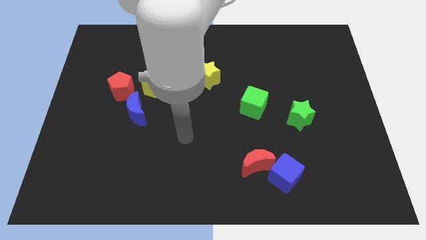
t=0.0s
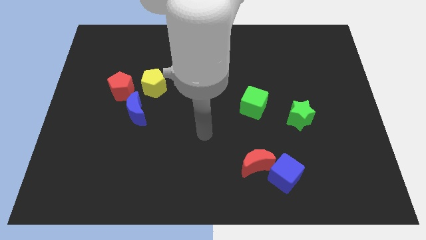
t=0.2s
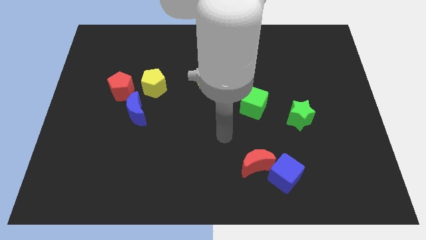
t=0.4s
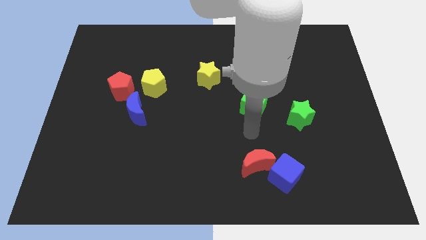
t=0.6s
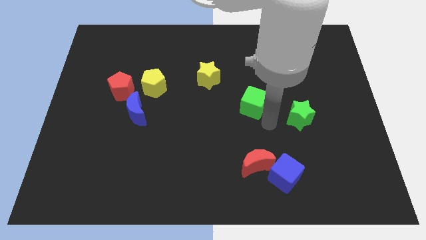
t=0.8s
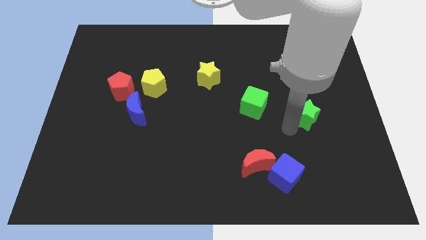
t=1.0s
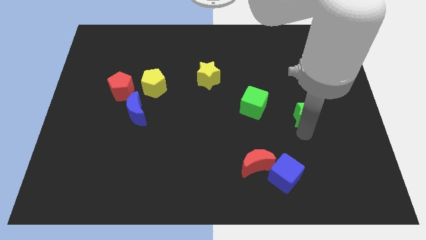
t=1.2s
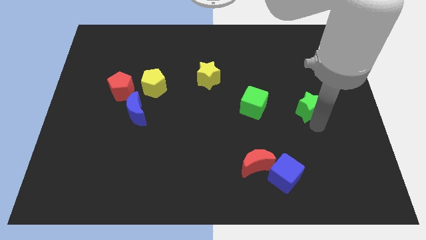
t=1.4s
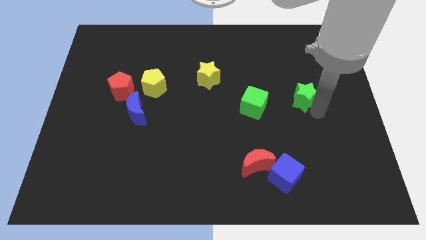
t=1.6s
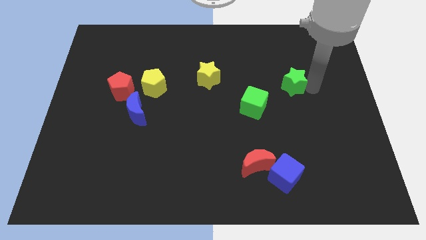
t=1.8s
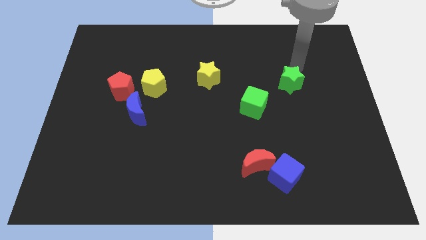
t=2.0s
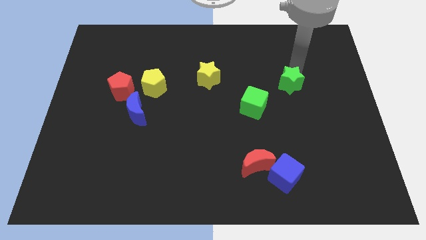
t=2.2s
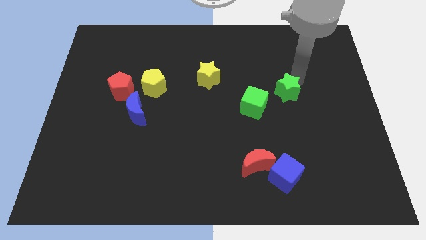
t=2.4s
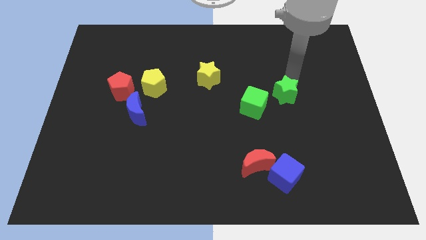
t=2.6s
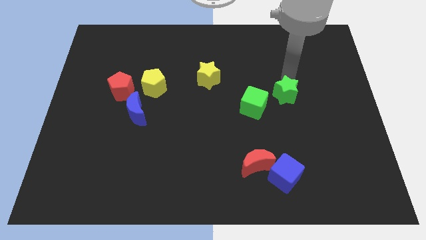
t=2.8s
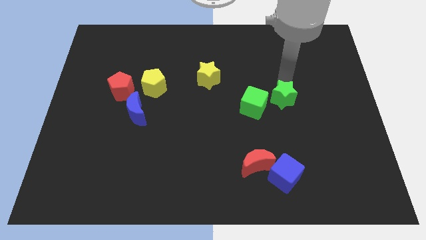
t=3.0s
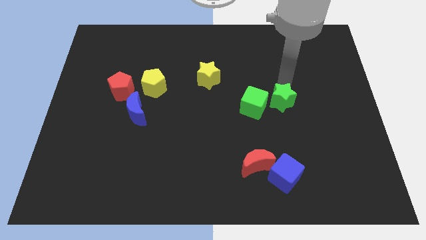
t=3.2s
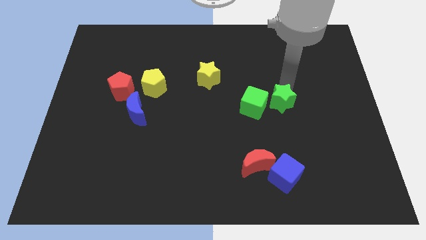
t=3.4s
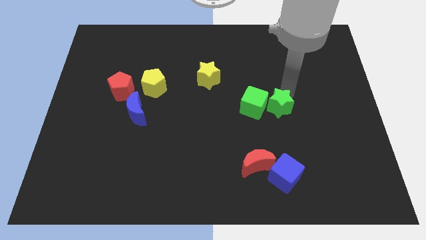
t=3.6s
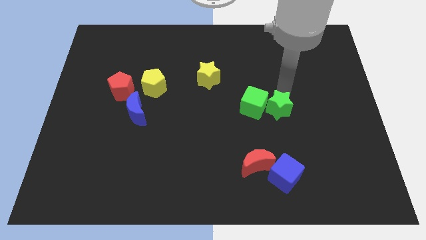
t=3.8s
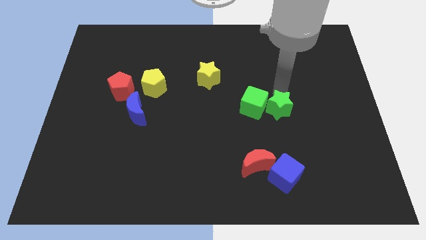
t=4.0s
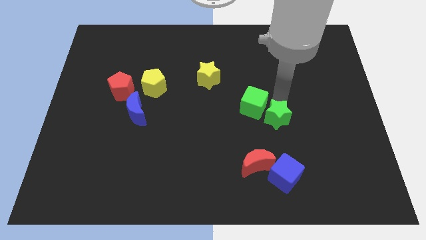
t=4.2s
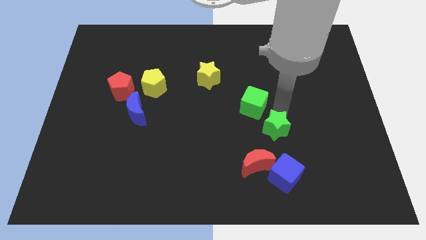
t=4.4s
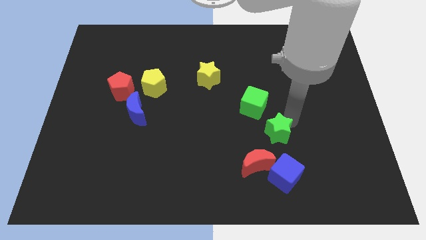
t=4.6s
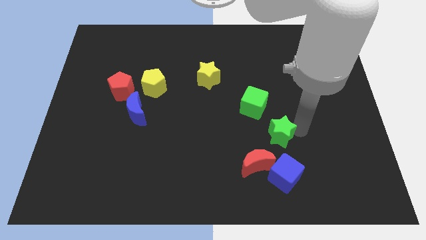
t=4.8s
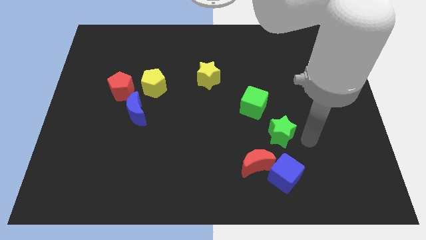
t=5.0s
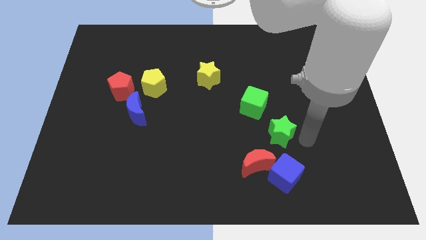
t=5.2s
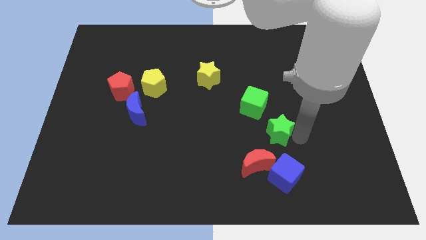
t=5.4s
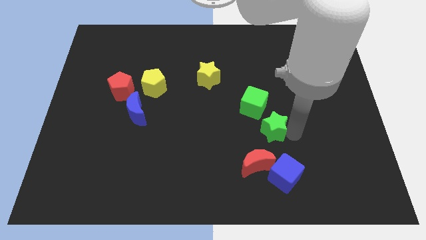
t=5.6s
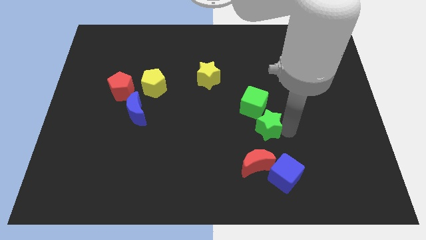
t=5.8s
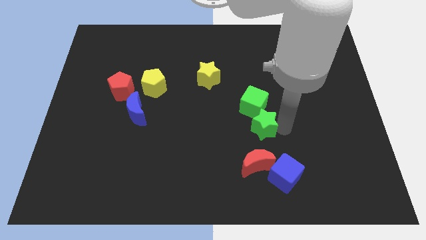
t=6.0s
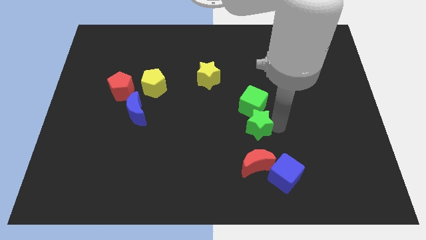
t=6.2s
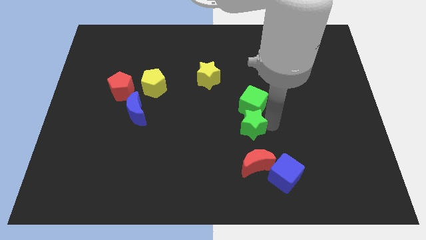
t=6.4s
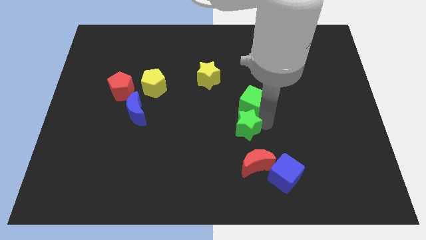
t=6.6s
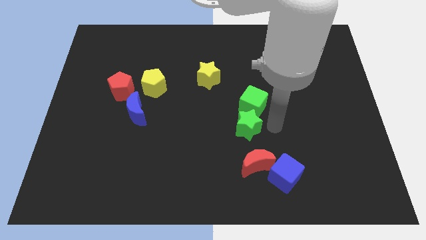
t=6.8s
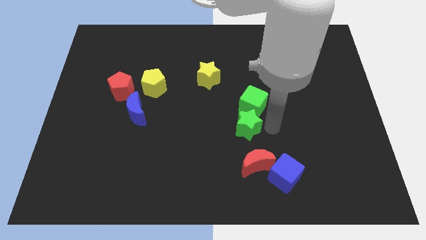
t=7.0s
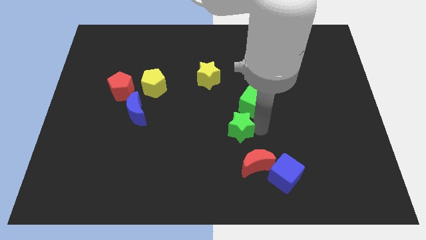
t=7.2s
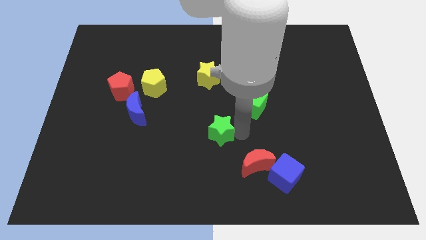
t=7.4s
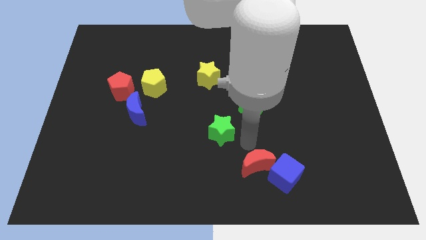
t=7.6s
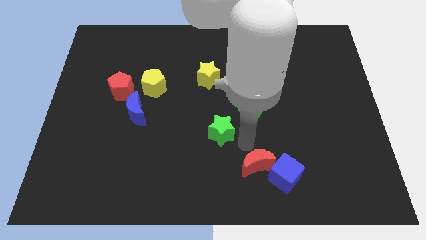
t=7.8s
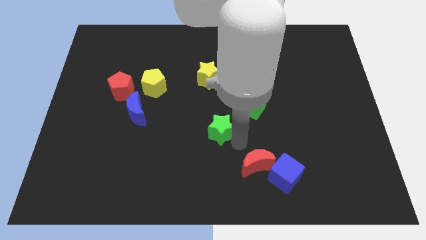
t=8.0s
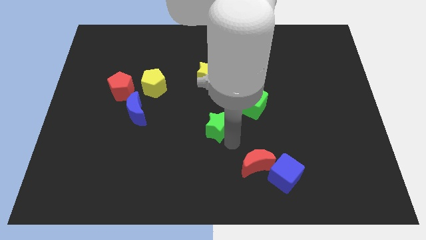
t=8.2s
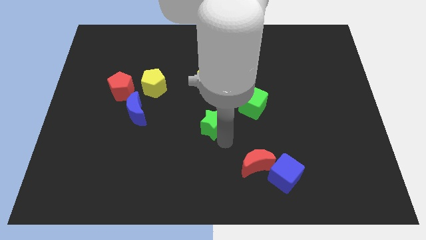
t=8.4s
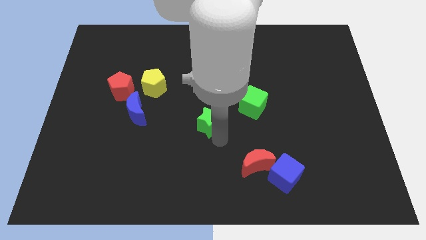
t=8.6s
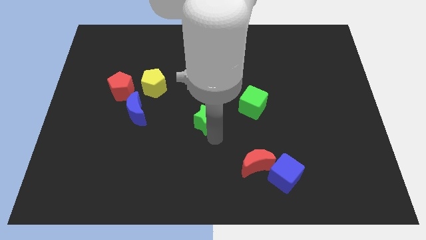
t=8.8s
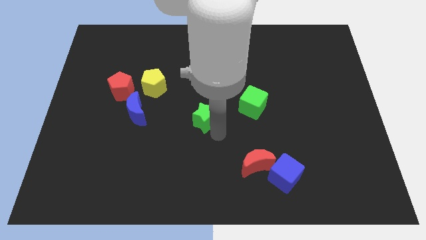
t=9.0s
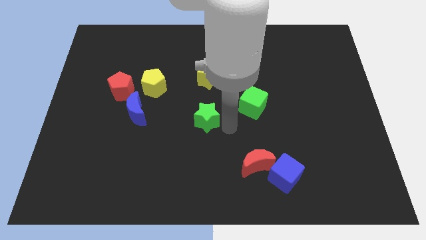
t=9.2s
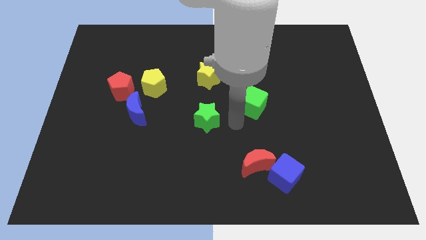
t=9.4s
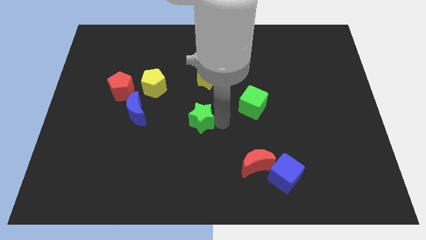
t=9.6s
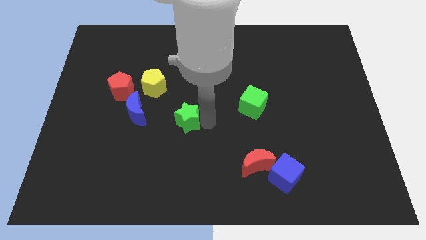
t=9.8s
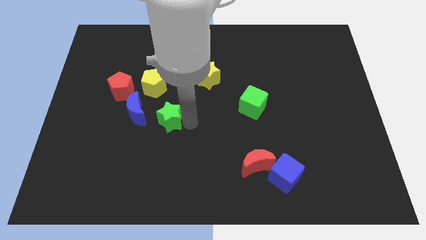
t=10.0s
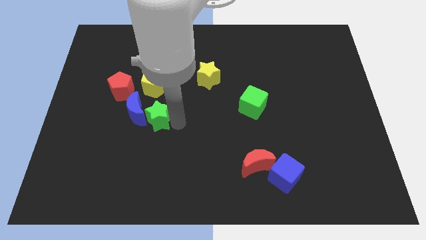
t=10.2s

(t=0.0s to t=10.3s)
slide the green star close to the blue moon

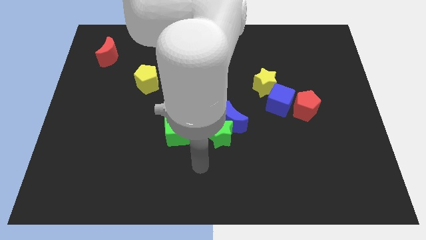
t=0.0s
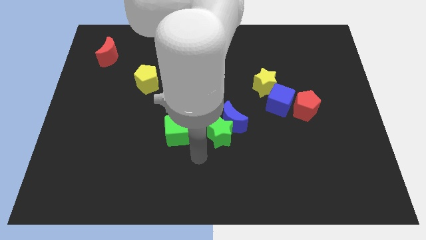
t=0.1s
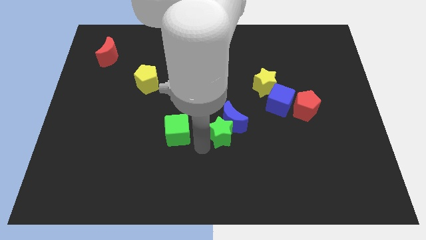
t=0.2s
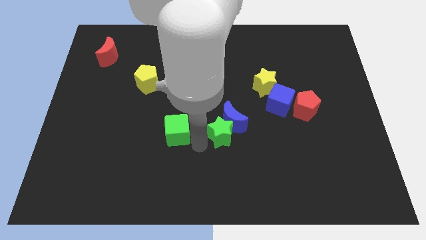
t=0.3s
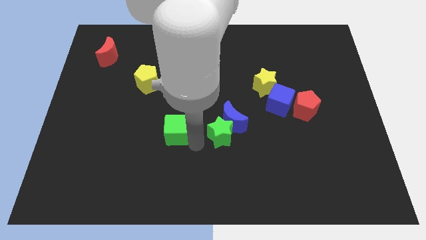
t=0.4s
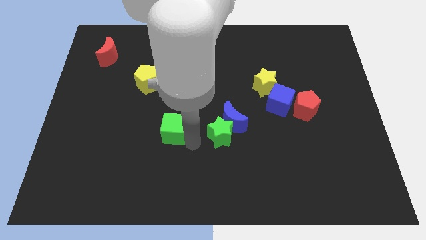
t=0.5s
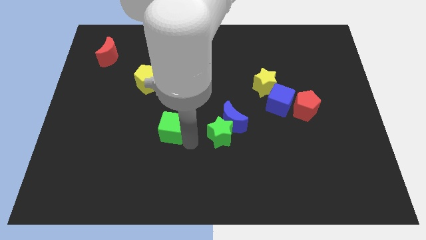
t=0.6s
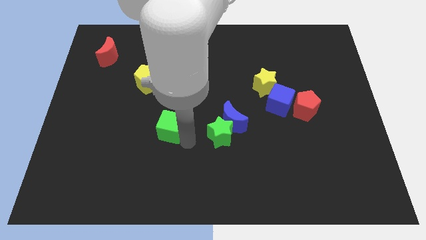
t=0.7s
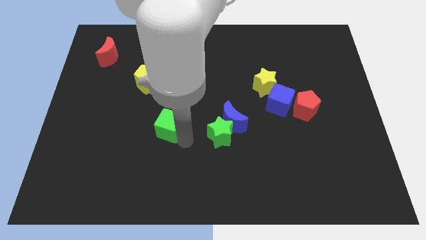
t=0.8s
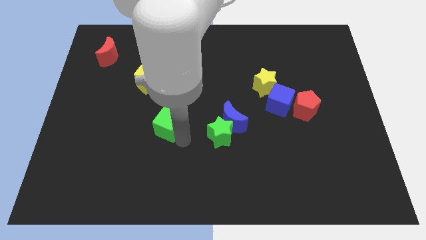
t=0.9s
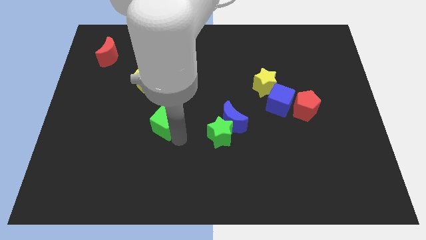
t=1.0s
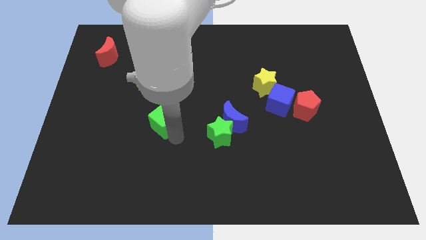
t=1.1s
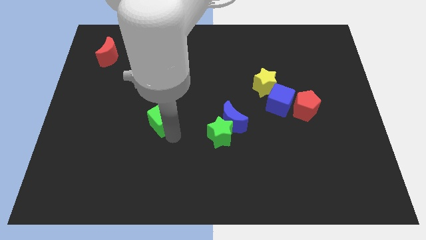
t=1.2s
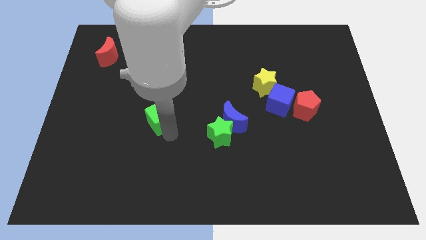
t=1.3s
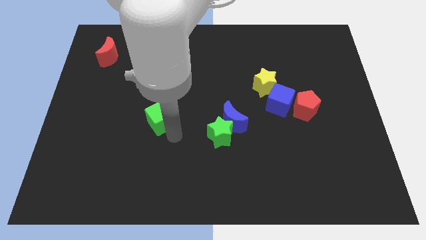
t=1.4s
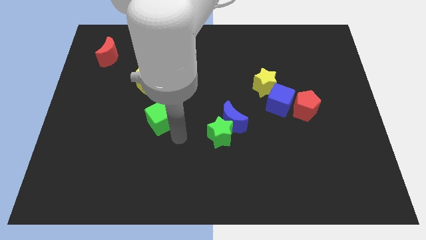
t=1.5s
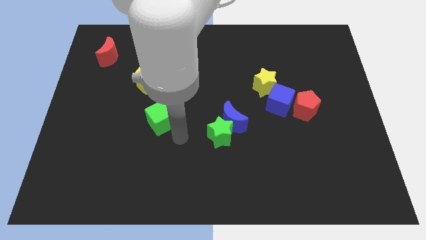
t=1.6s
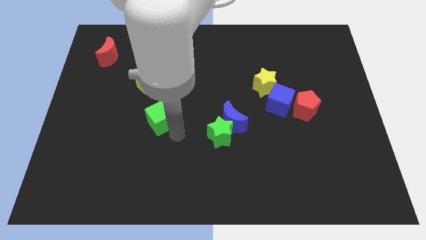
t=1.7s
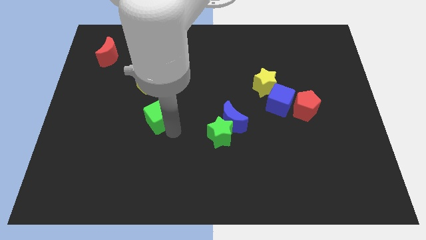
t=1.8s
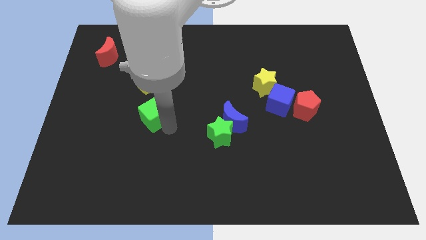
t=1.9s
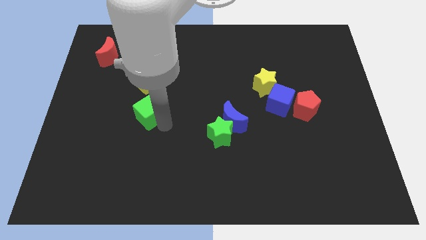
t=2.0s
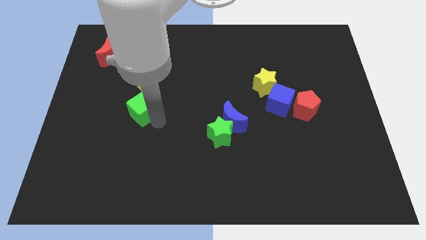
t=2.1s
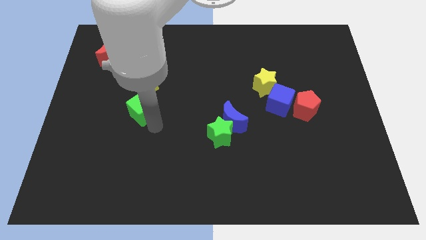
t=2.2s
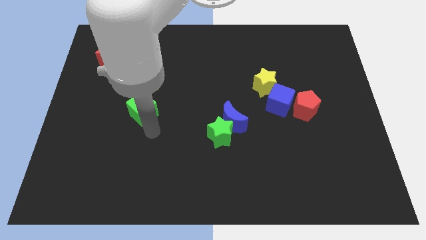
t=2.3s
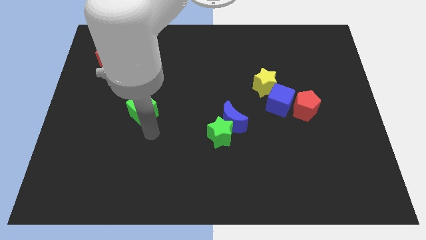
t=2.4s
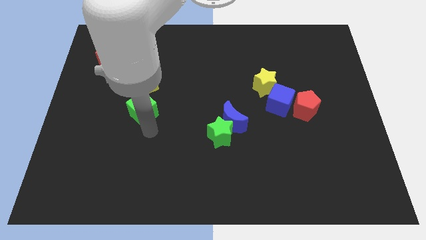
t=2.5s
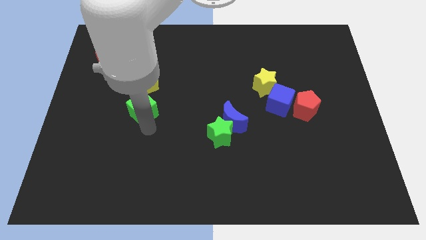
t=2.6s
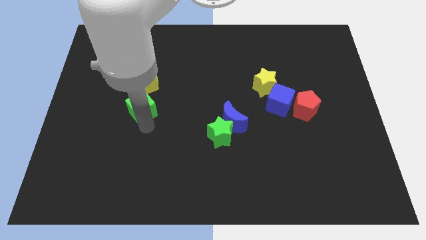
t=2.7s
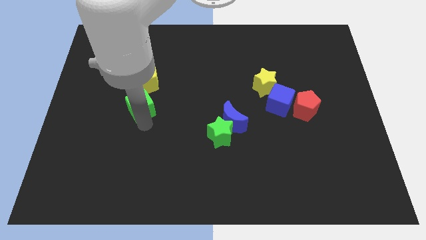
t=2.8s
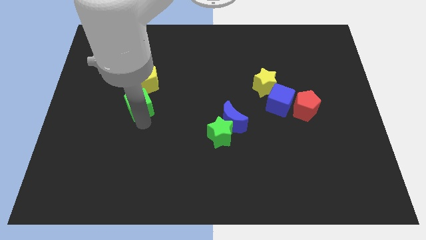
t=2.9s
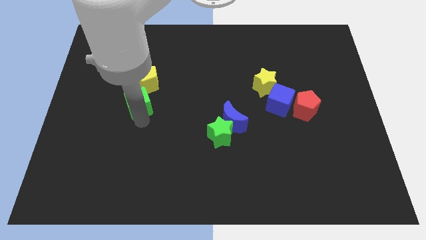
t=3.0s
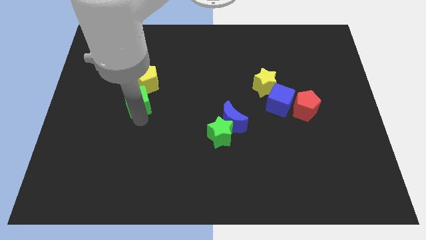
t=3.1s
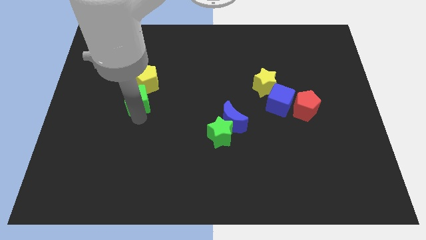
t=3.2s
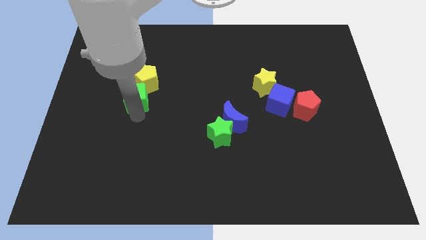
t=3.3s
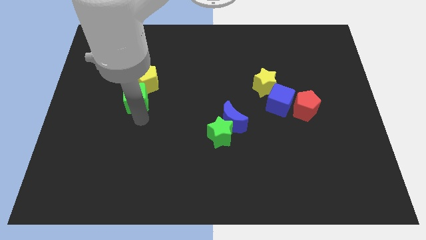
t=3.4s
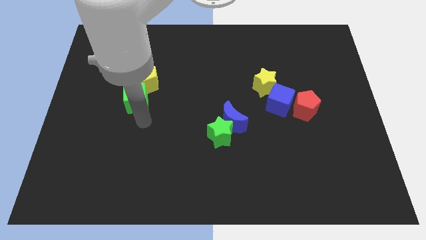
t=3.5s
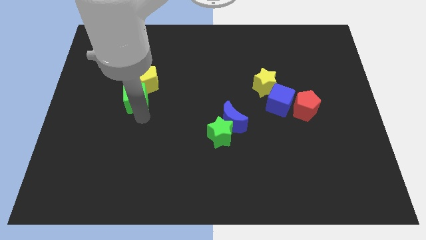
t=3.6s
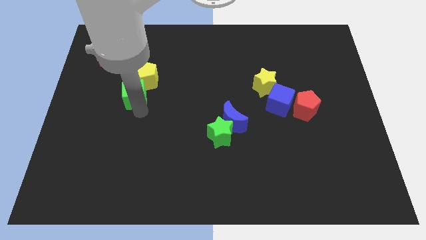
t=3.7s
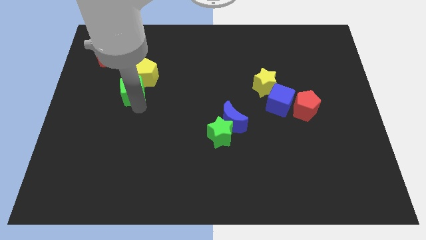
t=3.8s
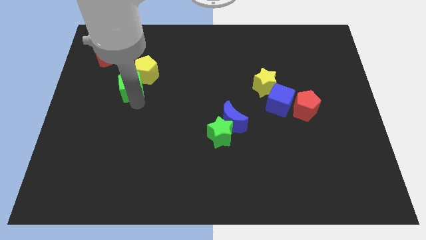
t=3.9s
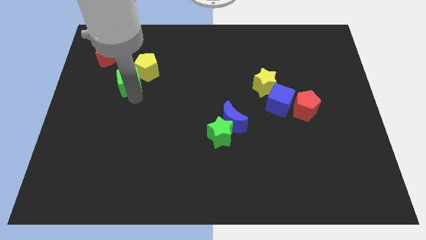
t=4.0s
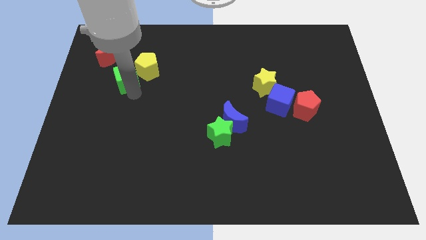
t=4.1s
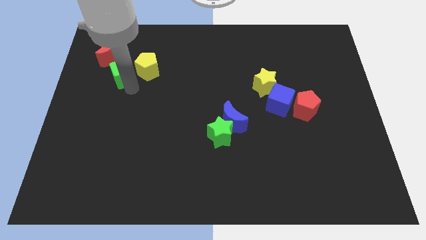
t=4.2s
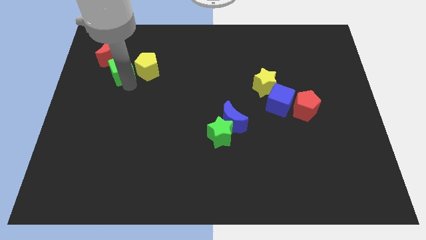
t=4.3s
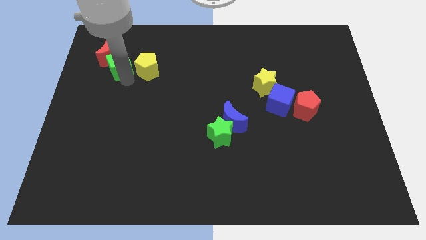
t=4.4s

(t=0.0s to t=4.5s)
slide the green cube close to the red moon
